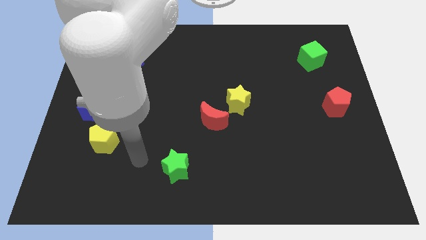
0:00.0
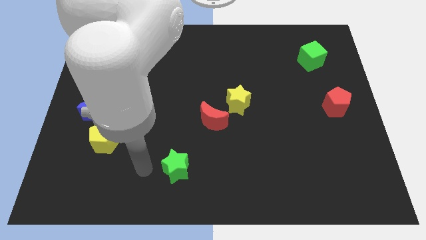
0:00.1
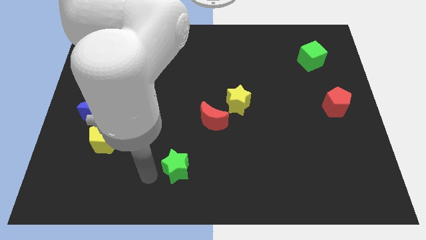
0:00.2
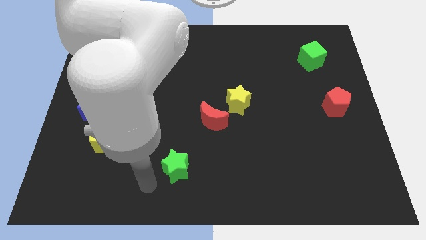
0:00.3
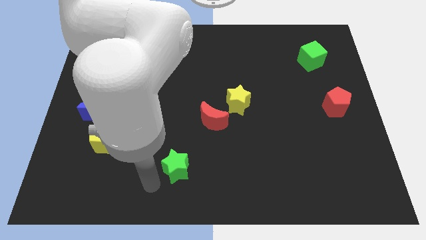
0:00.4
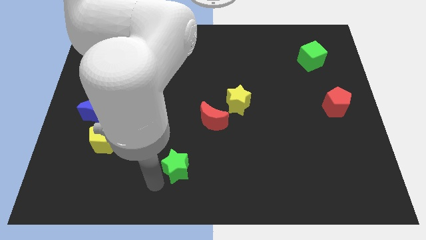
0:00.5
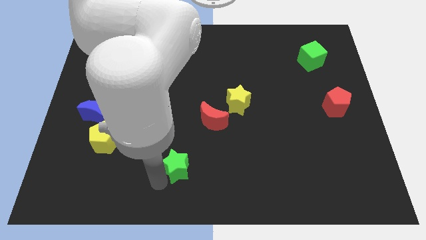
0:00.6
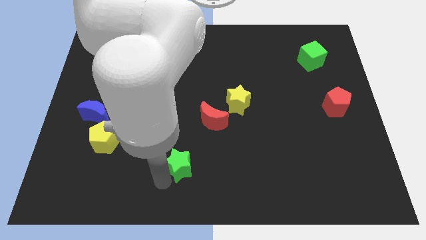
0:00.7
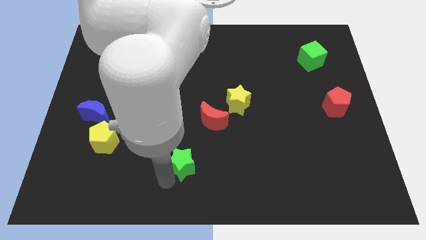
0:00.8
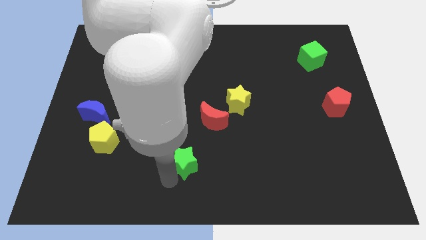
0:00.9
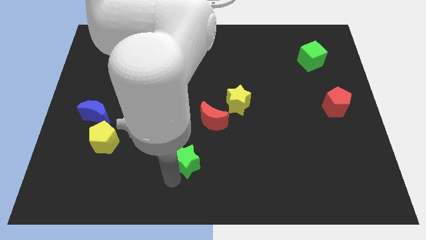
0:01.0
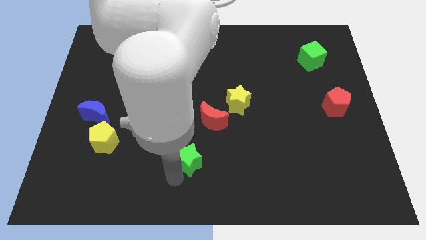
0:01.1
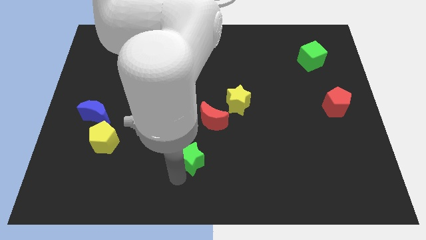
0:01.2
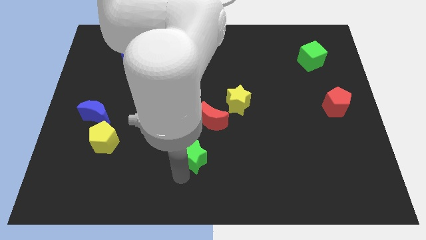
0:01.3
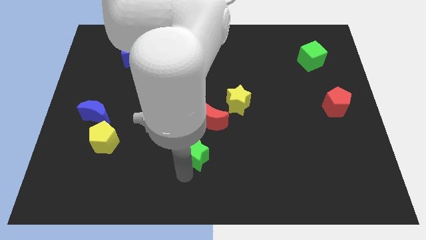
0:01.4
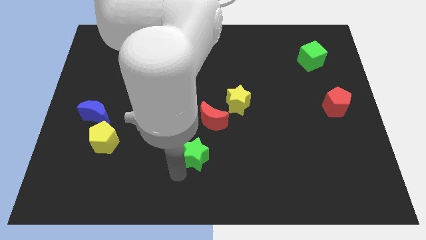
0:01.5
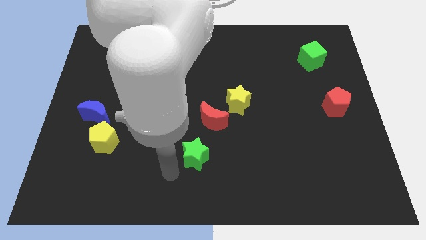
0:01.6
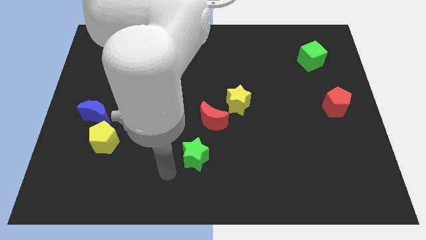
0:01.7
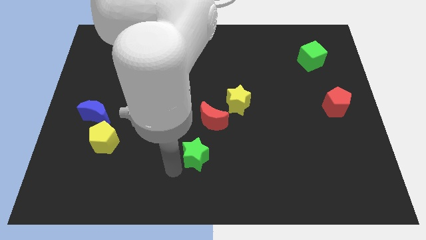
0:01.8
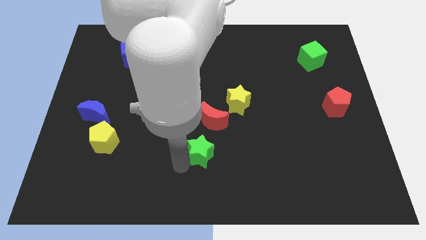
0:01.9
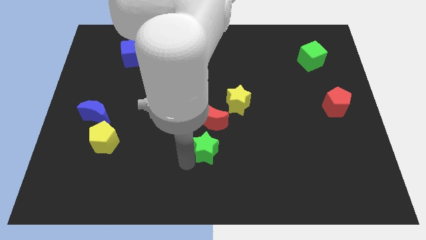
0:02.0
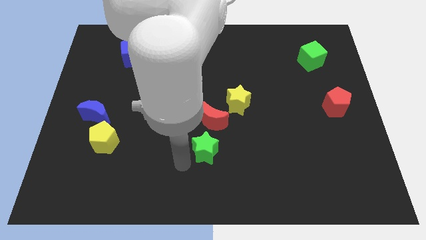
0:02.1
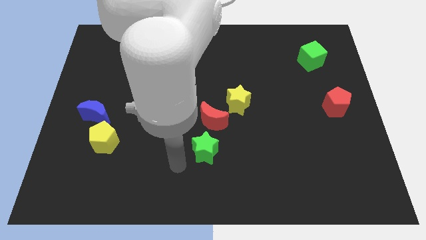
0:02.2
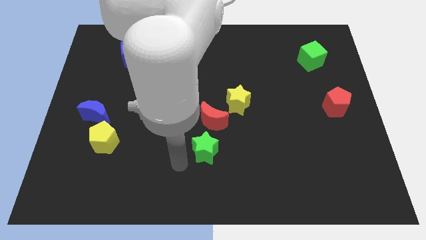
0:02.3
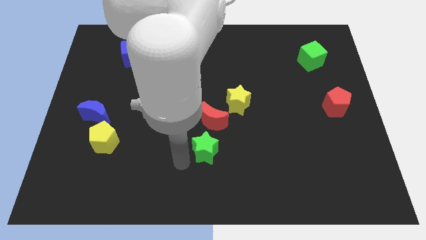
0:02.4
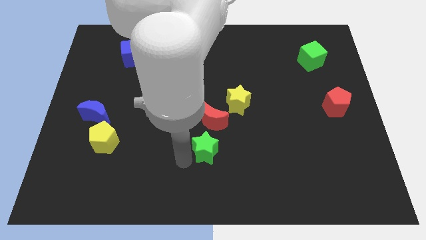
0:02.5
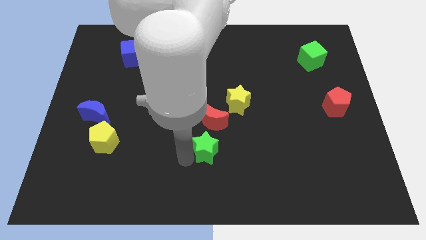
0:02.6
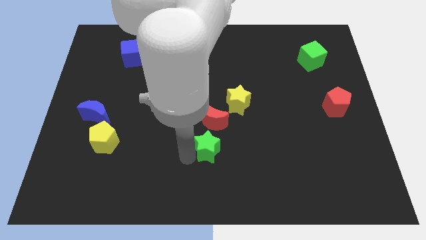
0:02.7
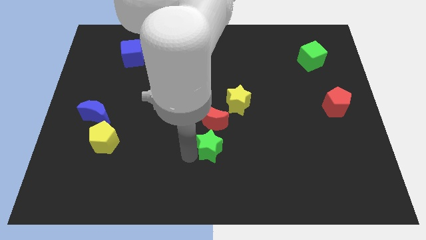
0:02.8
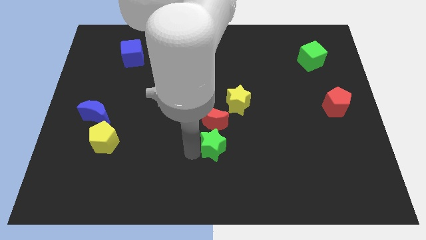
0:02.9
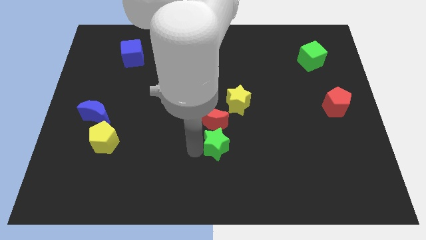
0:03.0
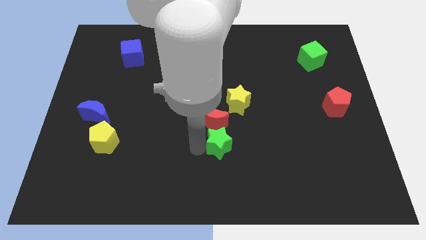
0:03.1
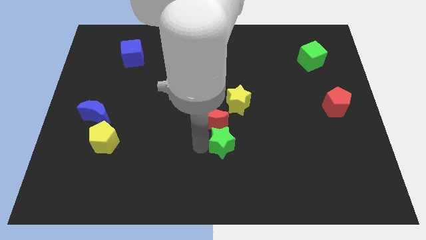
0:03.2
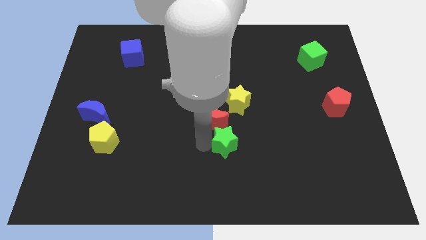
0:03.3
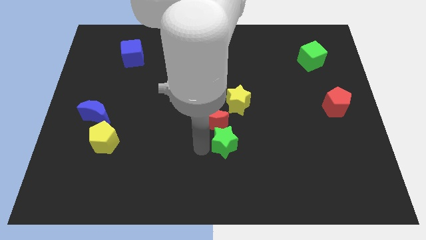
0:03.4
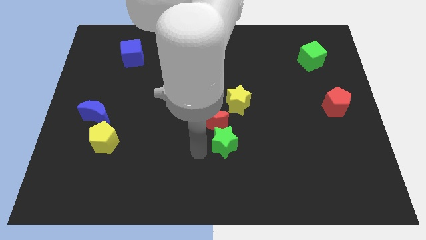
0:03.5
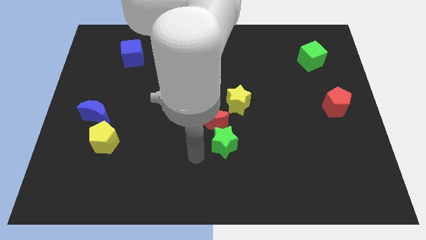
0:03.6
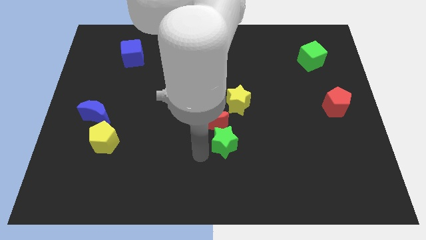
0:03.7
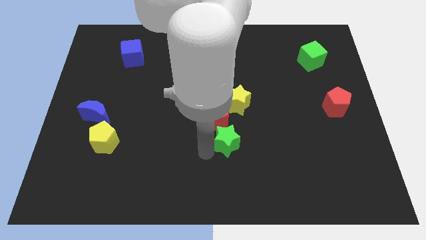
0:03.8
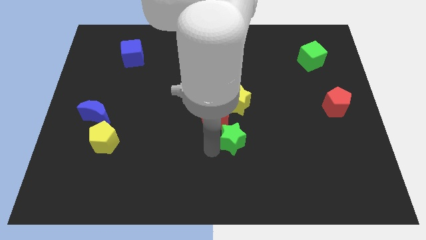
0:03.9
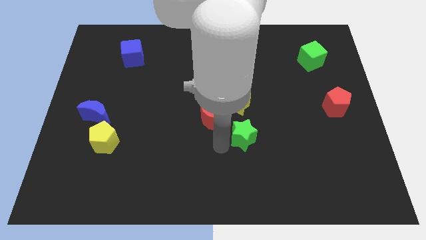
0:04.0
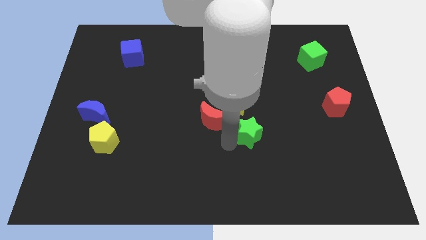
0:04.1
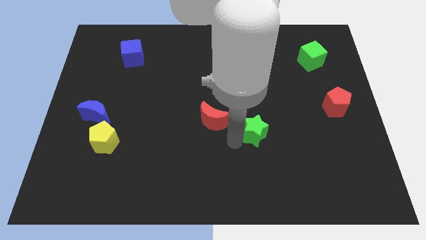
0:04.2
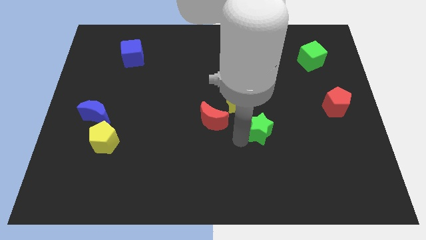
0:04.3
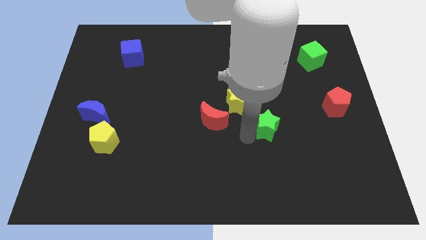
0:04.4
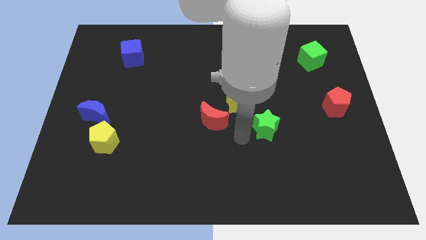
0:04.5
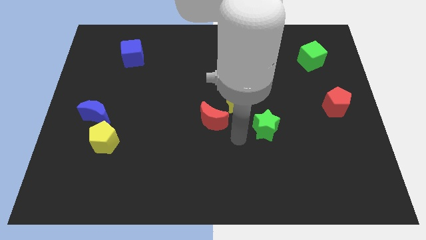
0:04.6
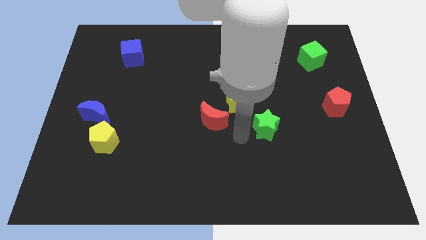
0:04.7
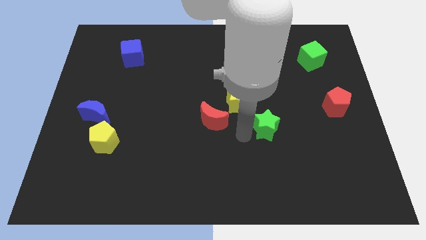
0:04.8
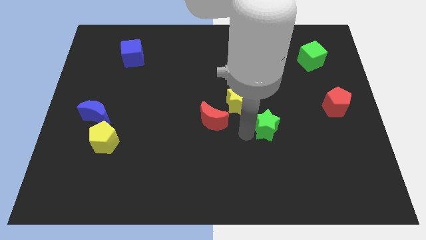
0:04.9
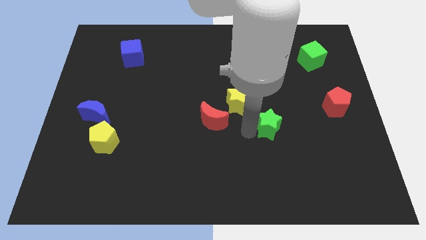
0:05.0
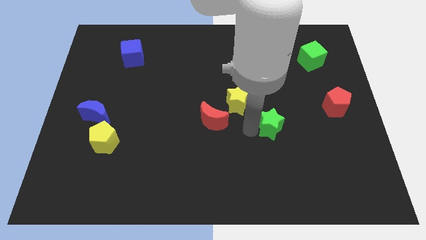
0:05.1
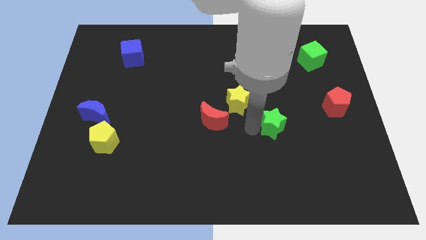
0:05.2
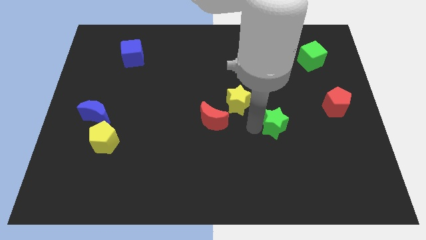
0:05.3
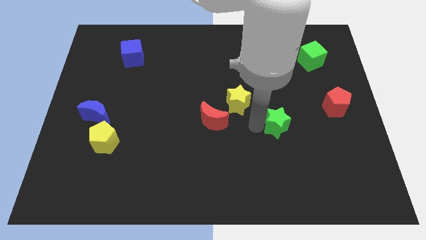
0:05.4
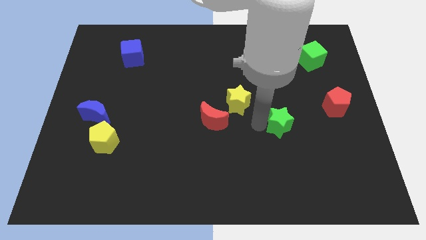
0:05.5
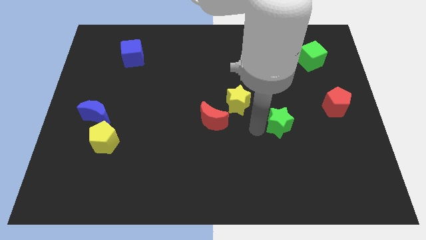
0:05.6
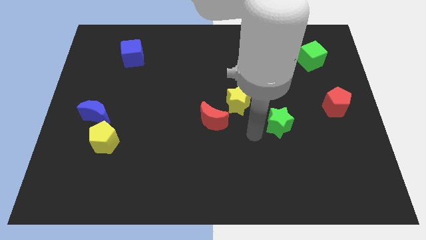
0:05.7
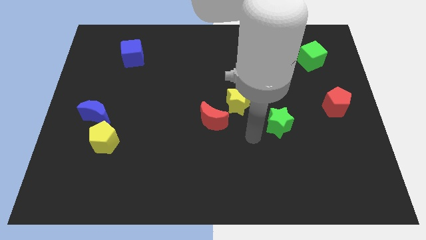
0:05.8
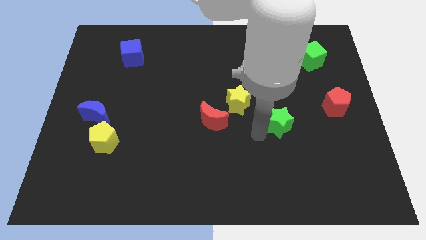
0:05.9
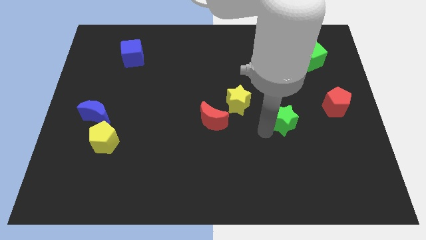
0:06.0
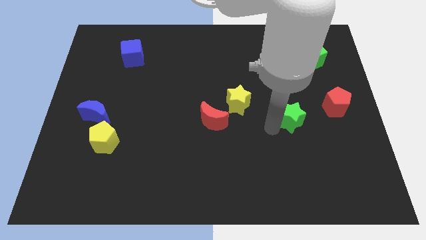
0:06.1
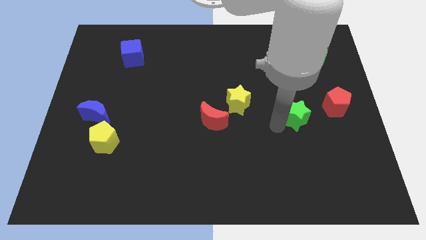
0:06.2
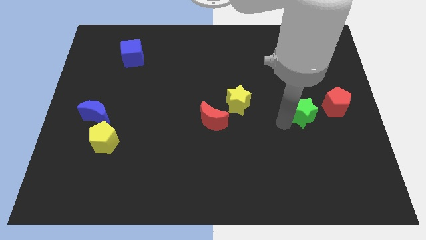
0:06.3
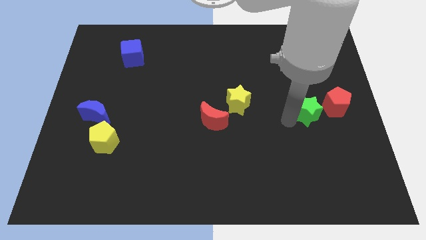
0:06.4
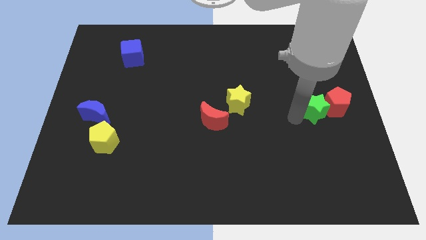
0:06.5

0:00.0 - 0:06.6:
push the green star to the red pentagon

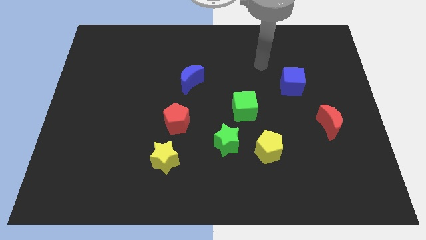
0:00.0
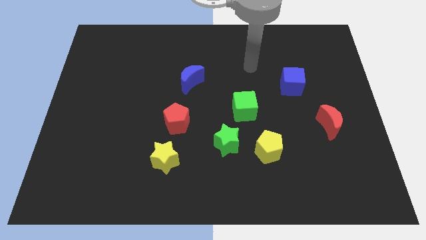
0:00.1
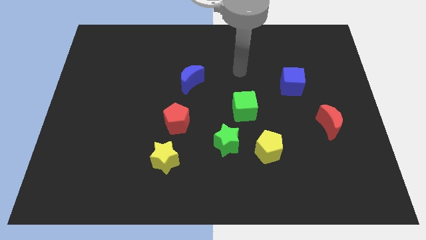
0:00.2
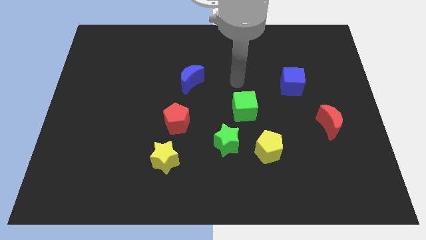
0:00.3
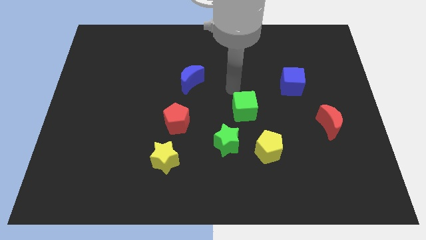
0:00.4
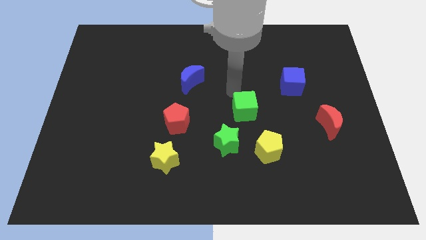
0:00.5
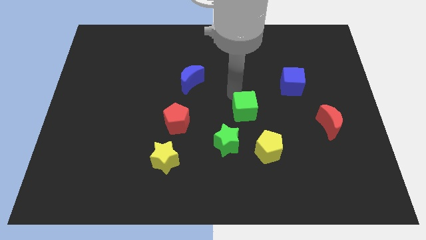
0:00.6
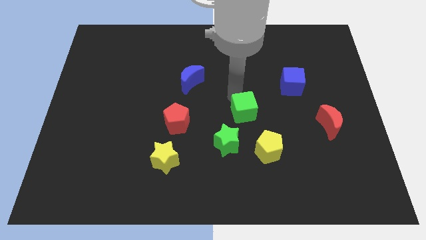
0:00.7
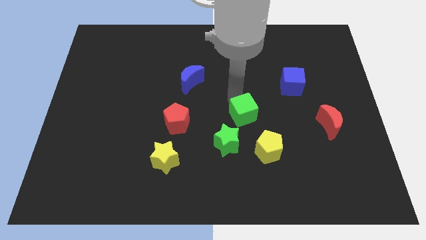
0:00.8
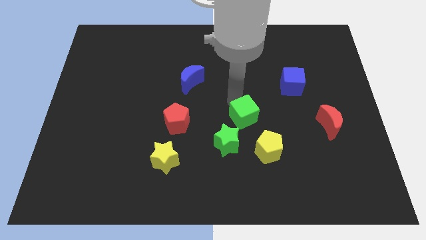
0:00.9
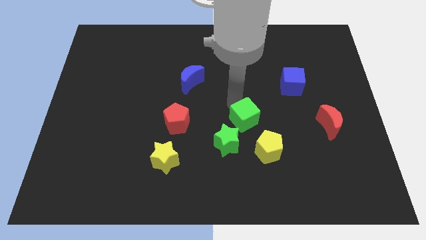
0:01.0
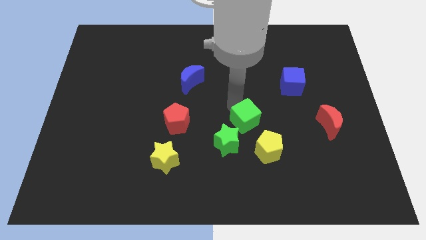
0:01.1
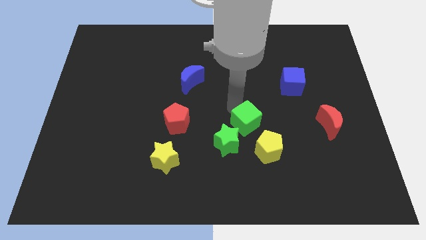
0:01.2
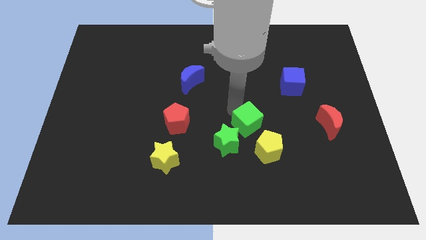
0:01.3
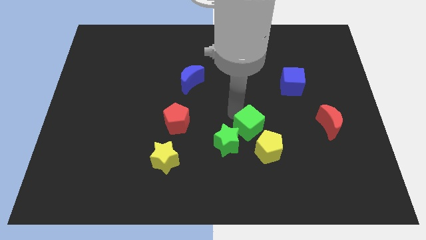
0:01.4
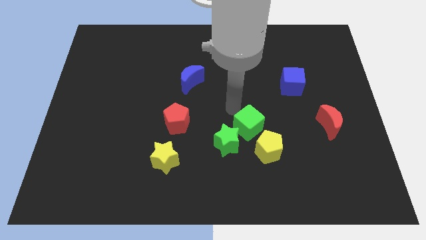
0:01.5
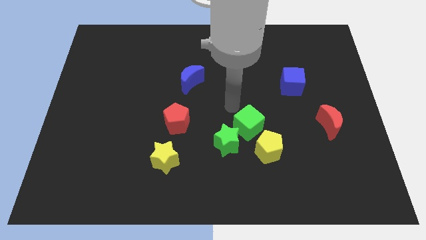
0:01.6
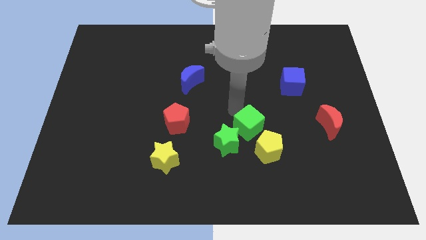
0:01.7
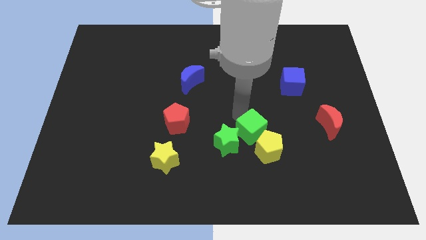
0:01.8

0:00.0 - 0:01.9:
slide the green cube close to the yellow pentagon
